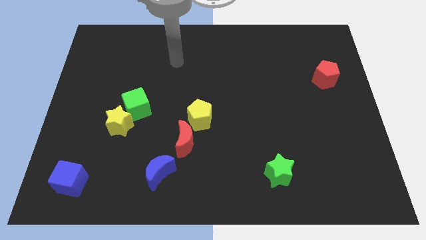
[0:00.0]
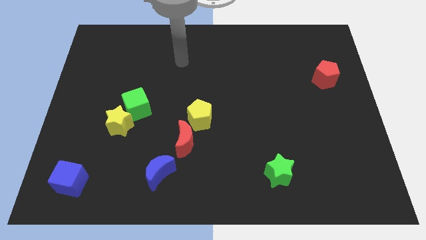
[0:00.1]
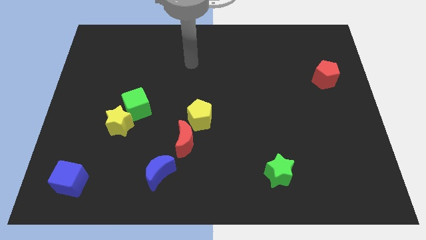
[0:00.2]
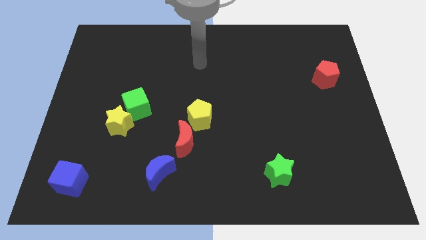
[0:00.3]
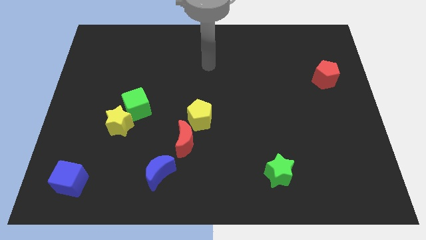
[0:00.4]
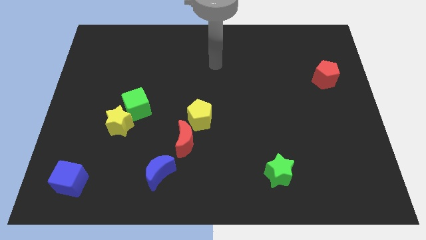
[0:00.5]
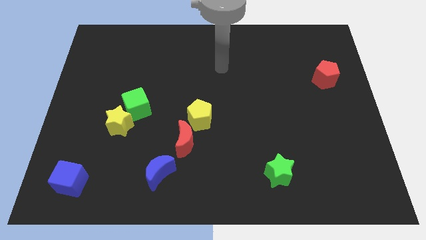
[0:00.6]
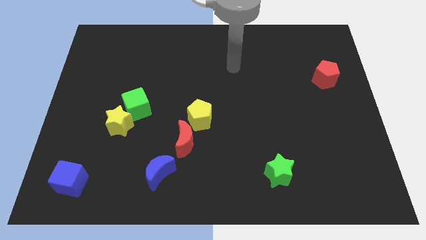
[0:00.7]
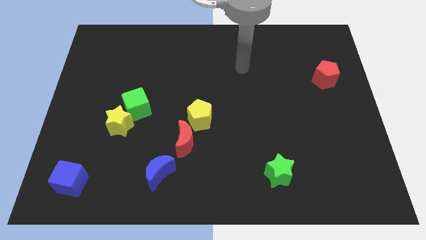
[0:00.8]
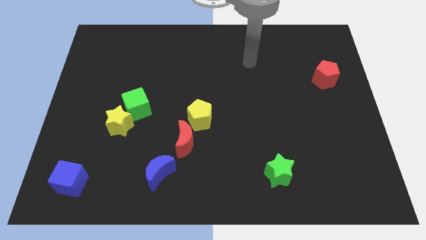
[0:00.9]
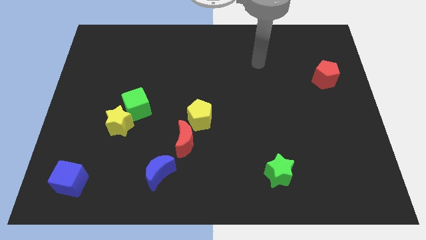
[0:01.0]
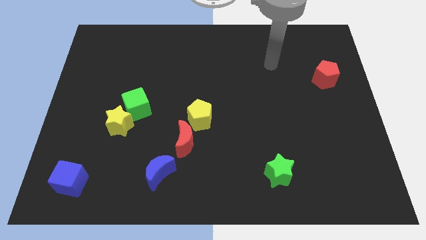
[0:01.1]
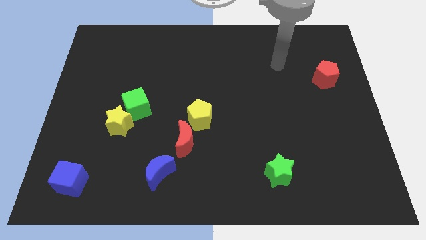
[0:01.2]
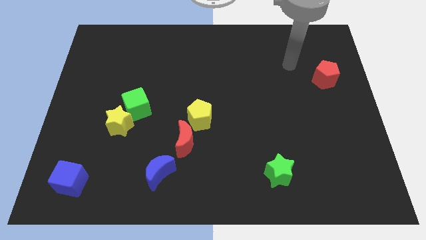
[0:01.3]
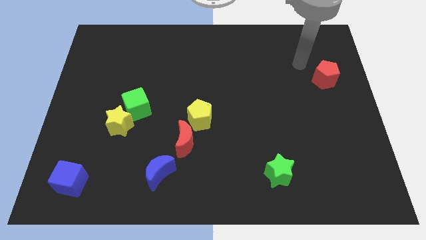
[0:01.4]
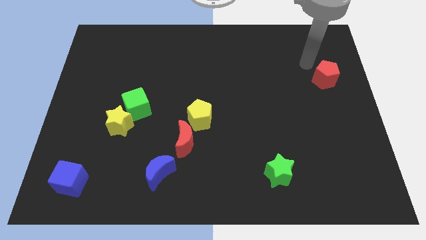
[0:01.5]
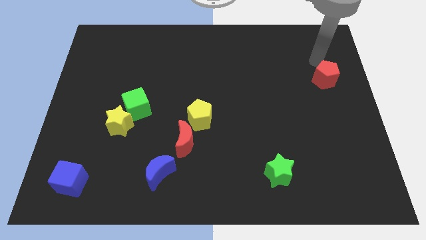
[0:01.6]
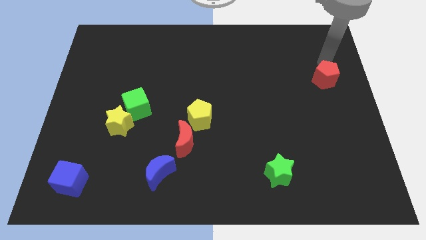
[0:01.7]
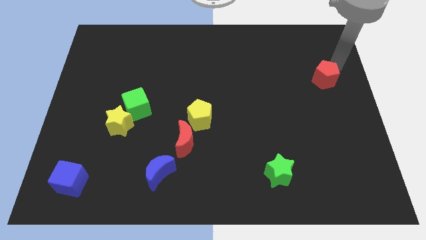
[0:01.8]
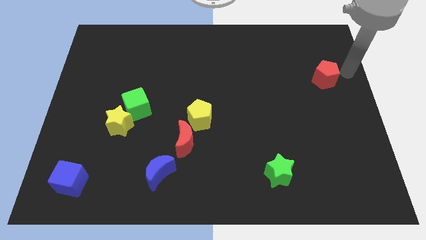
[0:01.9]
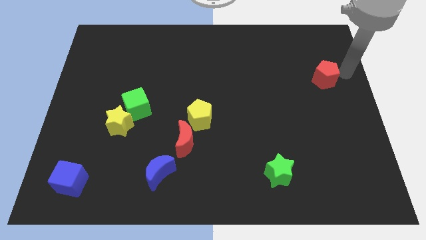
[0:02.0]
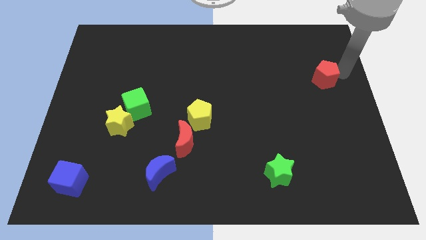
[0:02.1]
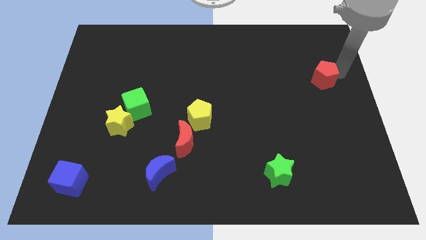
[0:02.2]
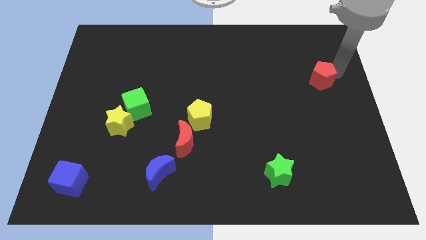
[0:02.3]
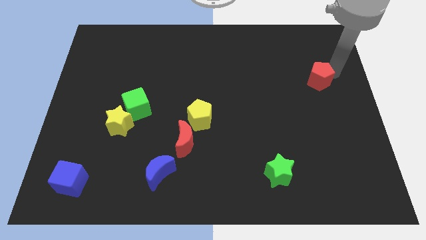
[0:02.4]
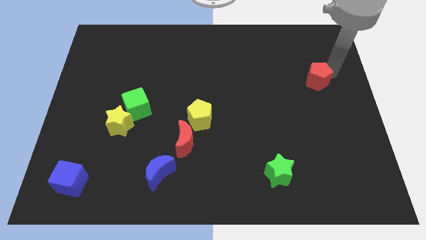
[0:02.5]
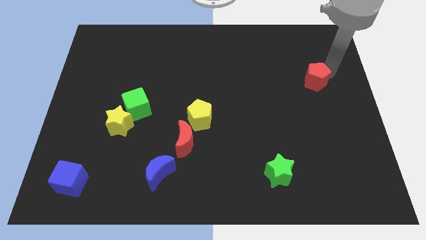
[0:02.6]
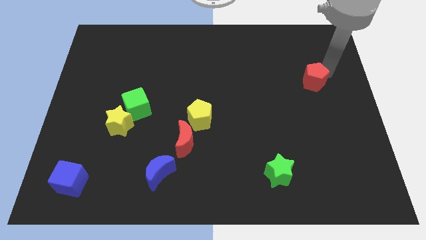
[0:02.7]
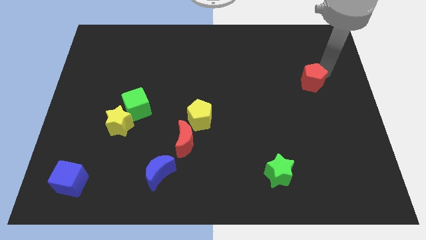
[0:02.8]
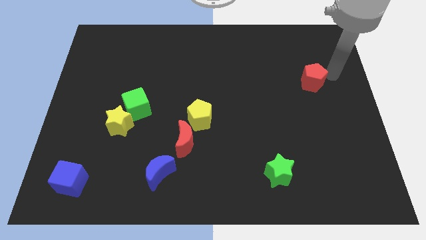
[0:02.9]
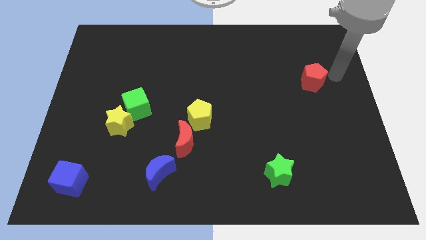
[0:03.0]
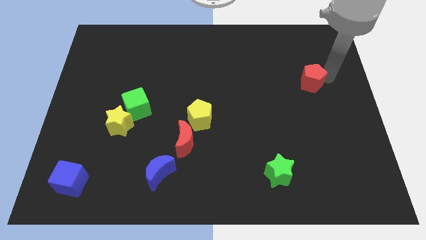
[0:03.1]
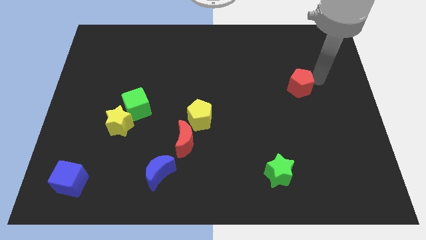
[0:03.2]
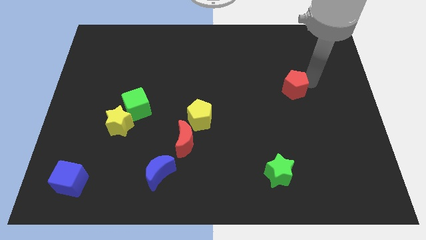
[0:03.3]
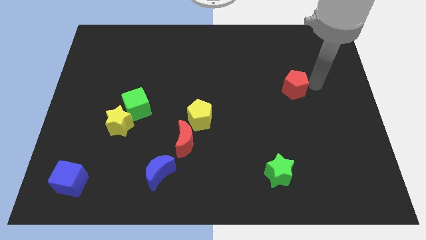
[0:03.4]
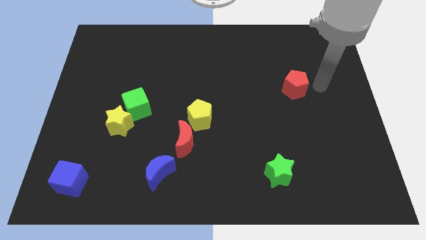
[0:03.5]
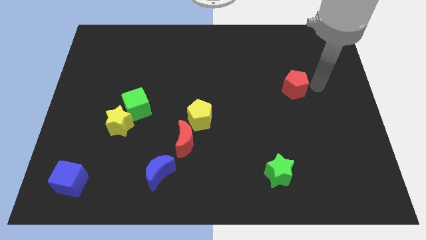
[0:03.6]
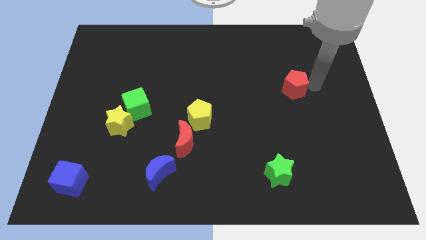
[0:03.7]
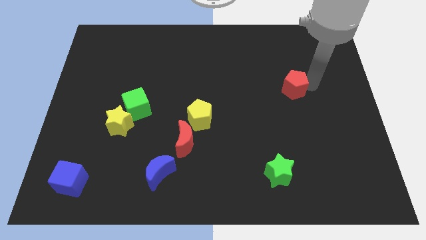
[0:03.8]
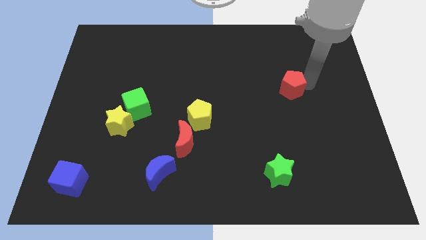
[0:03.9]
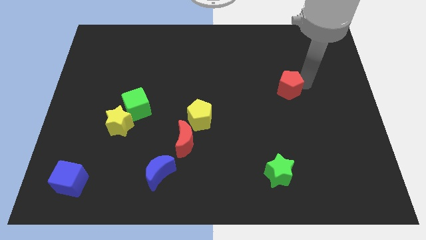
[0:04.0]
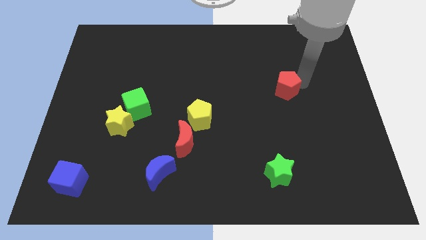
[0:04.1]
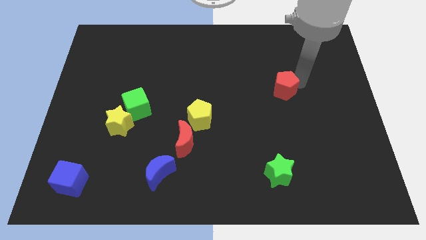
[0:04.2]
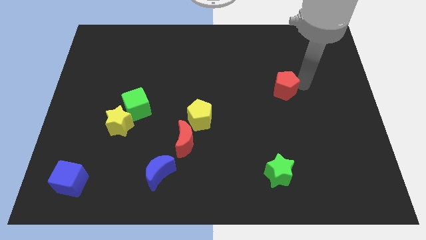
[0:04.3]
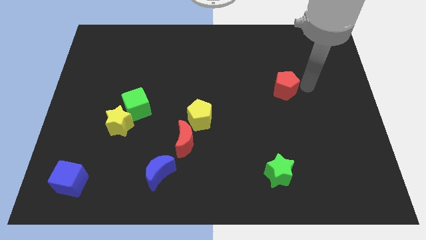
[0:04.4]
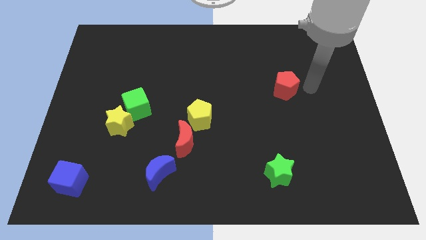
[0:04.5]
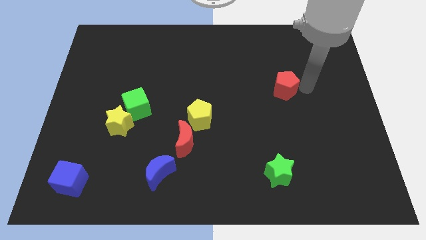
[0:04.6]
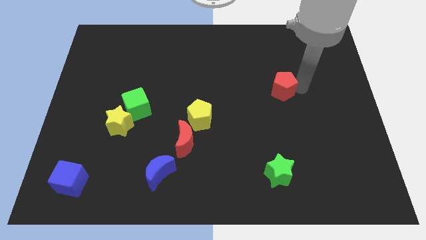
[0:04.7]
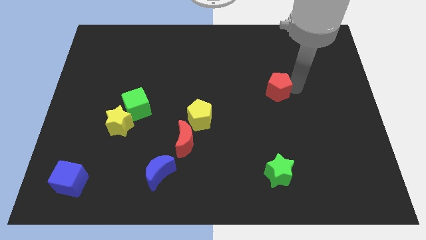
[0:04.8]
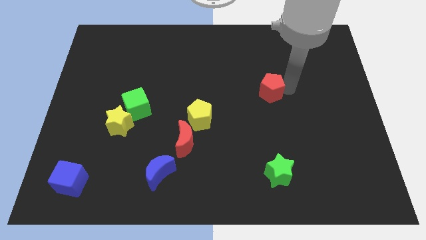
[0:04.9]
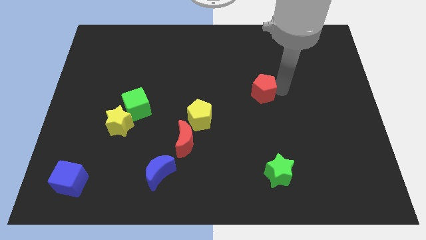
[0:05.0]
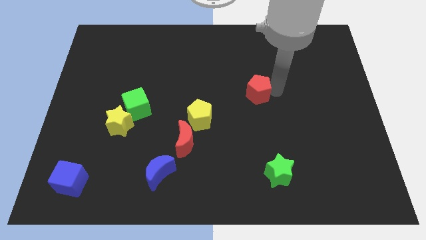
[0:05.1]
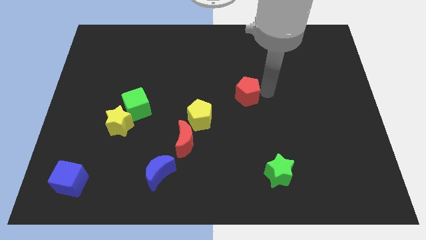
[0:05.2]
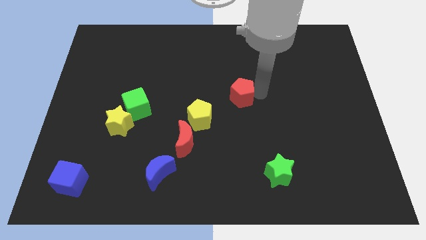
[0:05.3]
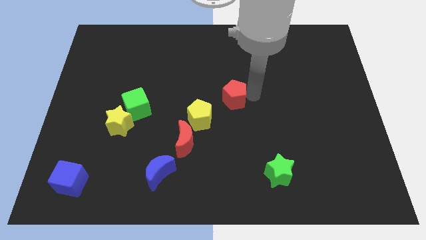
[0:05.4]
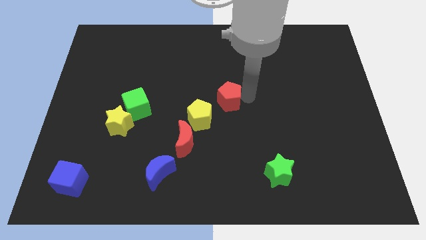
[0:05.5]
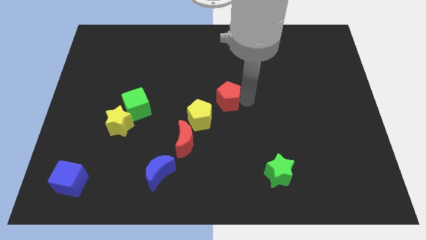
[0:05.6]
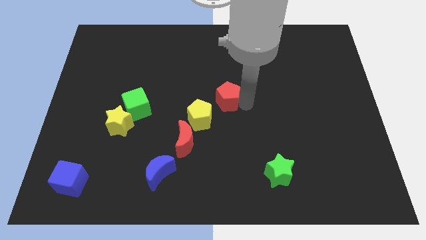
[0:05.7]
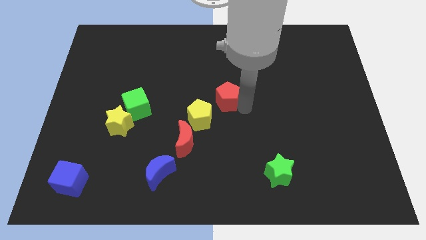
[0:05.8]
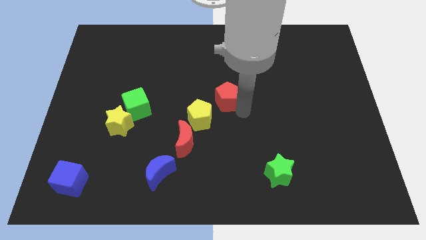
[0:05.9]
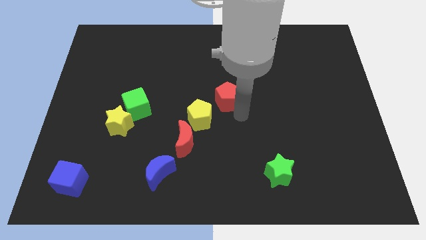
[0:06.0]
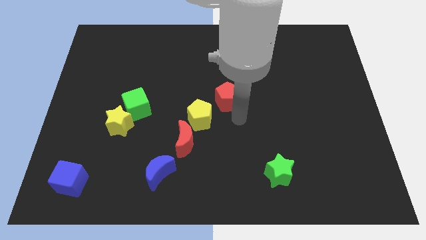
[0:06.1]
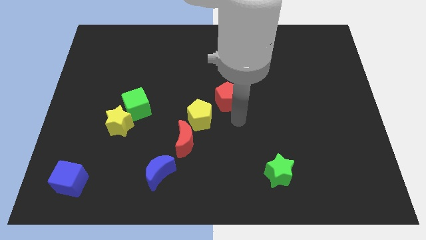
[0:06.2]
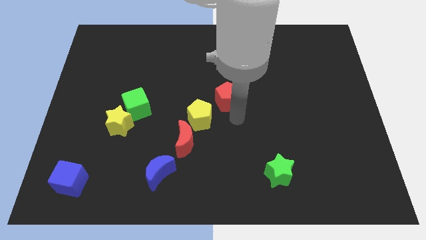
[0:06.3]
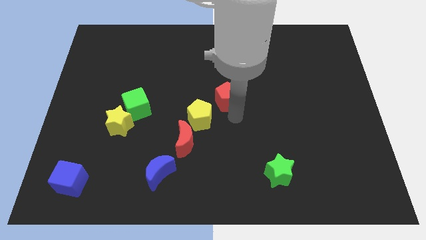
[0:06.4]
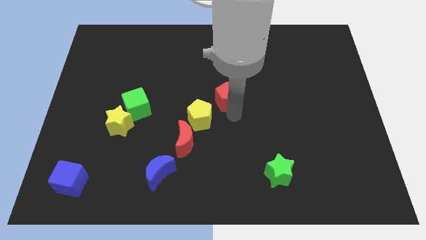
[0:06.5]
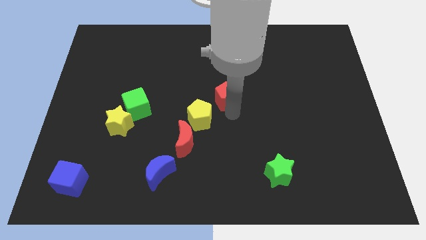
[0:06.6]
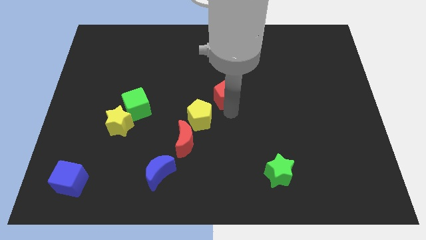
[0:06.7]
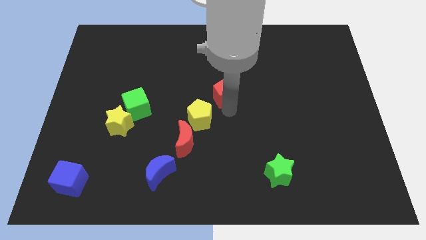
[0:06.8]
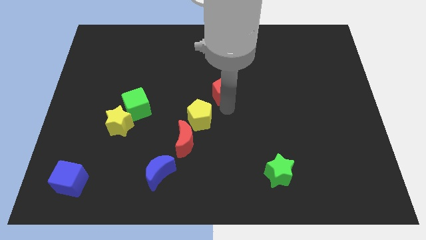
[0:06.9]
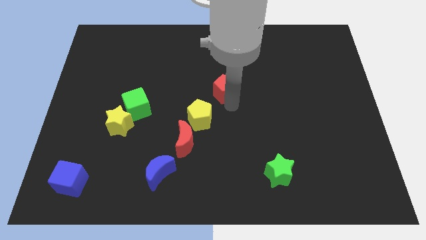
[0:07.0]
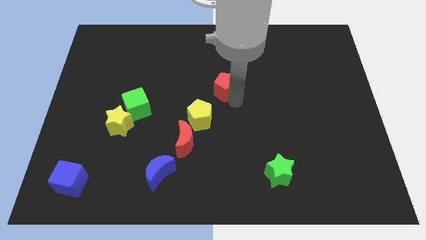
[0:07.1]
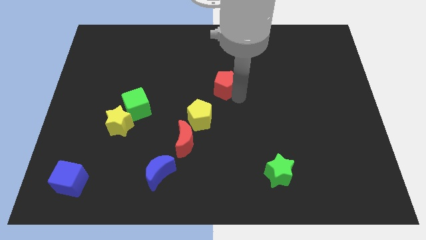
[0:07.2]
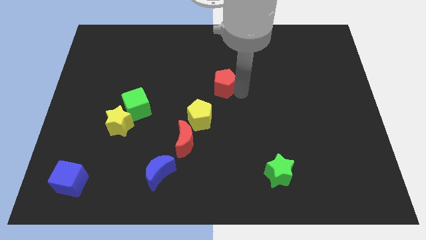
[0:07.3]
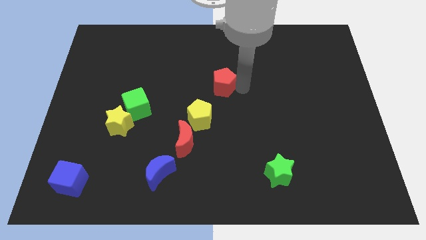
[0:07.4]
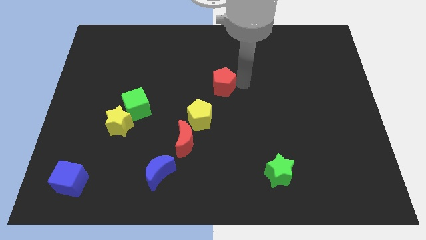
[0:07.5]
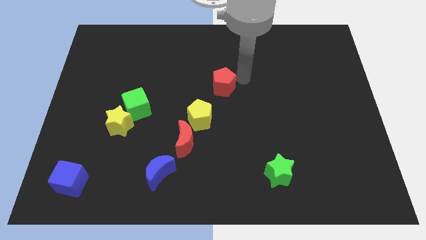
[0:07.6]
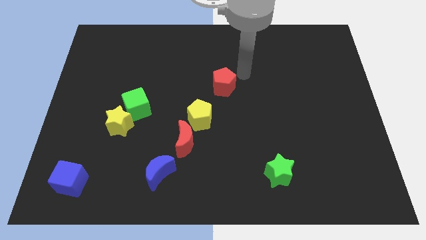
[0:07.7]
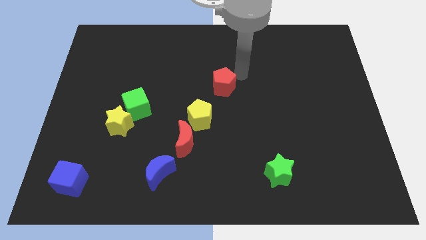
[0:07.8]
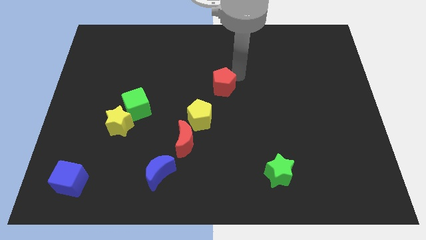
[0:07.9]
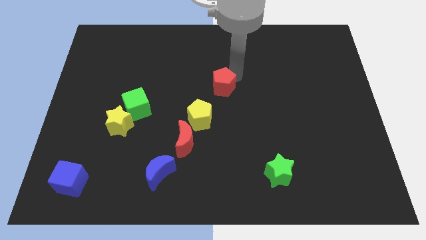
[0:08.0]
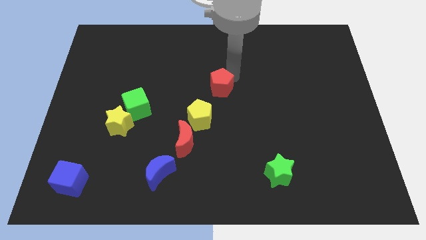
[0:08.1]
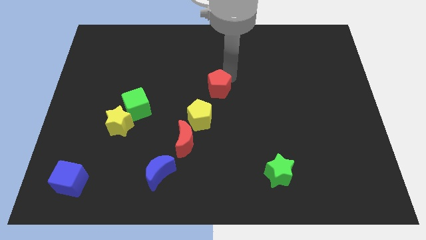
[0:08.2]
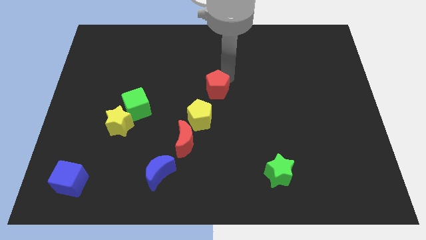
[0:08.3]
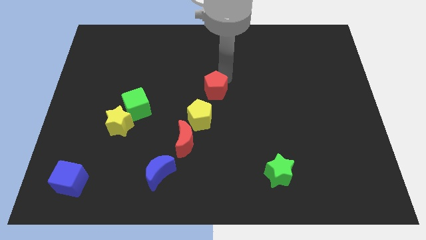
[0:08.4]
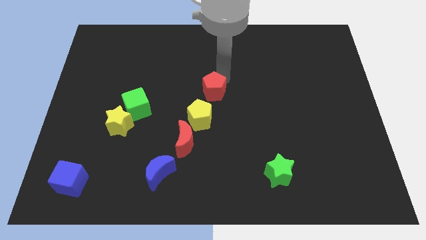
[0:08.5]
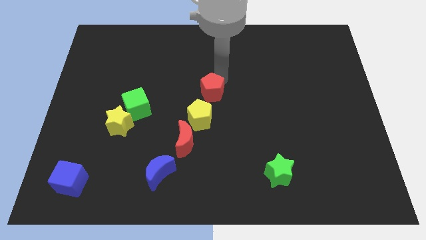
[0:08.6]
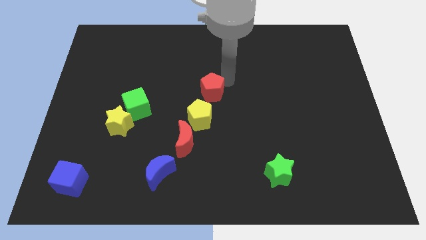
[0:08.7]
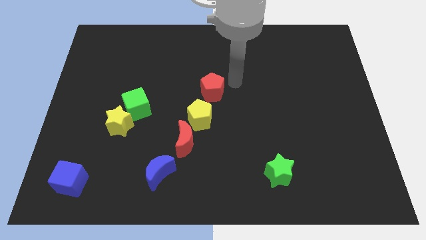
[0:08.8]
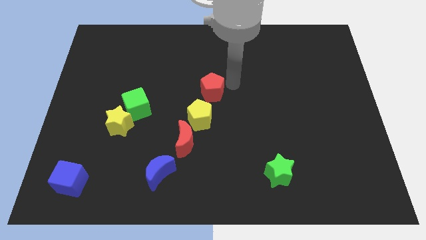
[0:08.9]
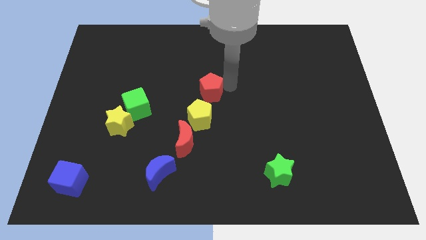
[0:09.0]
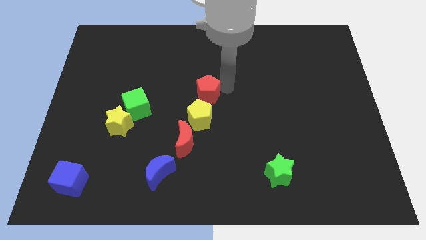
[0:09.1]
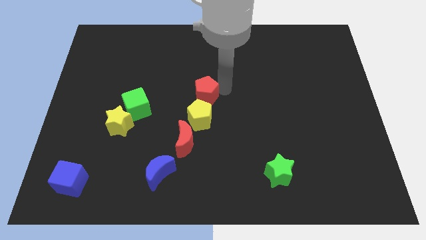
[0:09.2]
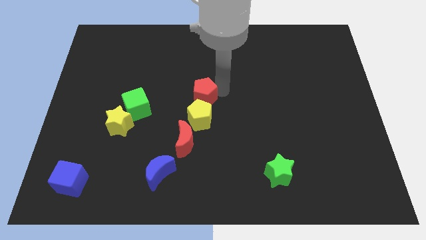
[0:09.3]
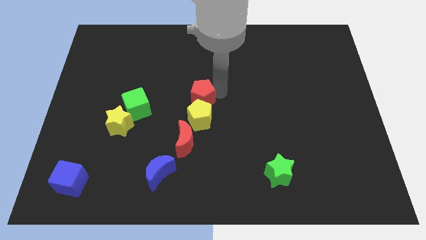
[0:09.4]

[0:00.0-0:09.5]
push the red pentagon to the top left of the yellow pentagon
